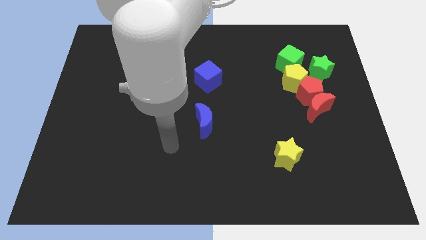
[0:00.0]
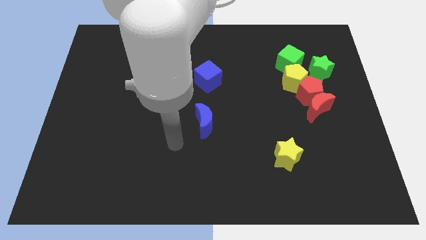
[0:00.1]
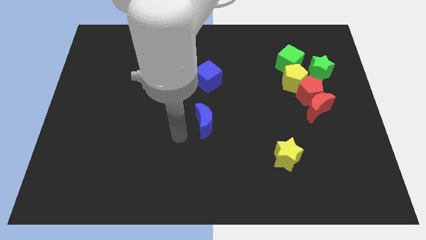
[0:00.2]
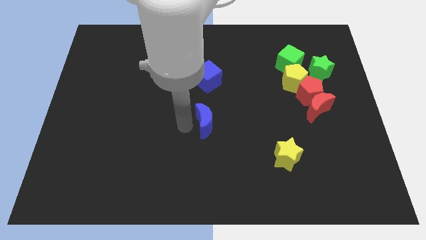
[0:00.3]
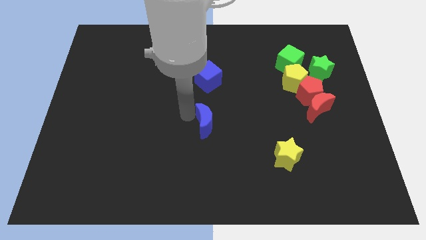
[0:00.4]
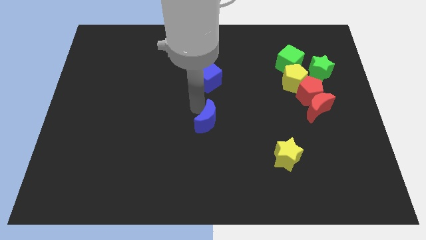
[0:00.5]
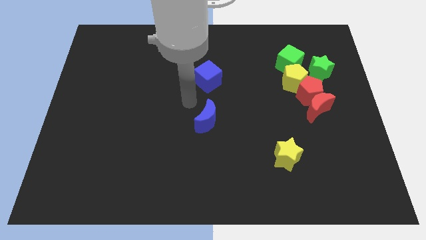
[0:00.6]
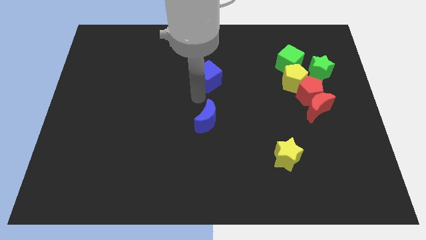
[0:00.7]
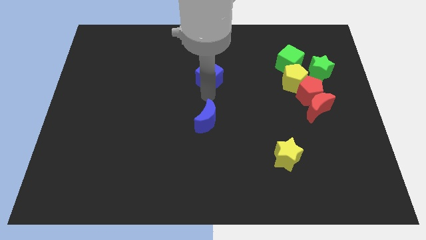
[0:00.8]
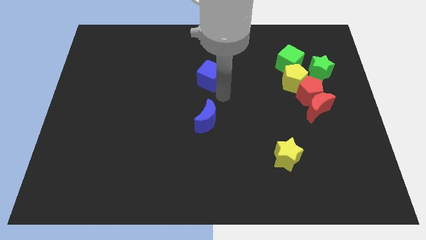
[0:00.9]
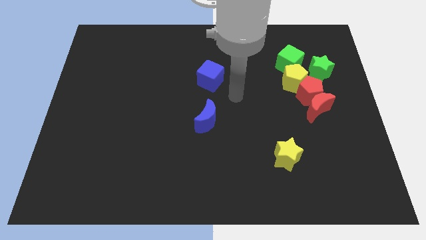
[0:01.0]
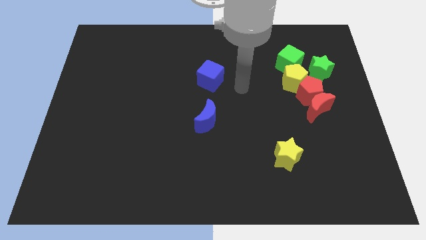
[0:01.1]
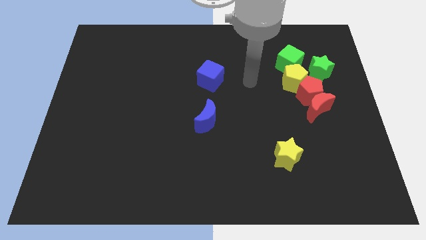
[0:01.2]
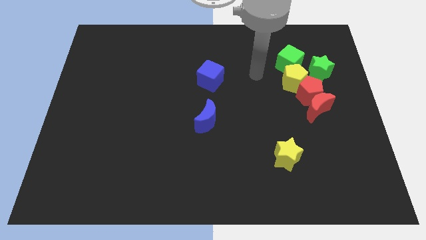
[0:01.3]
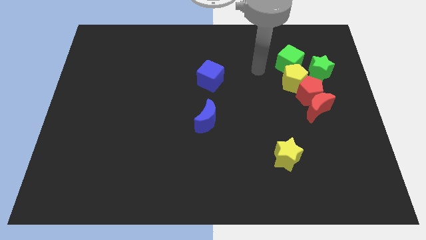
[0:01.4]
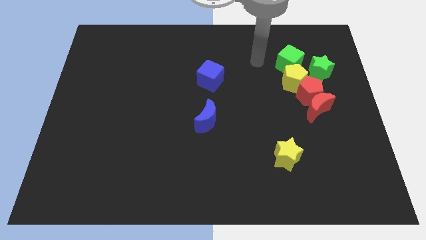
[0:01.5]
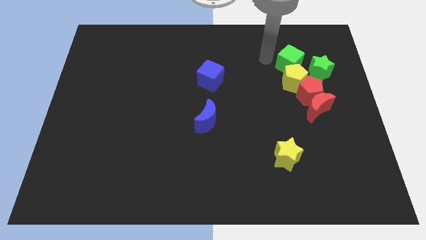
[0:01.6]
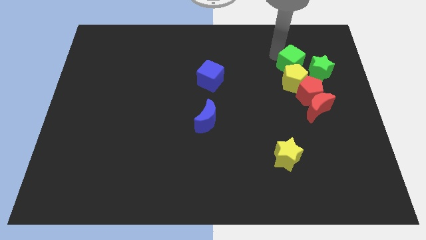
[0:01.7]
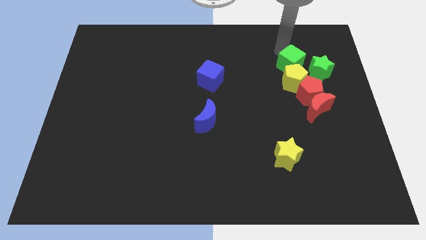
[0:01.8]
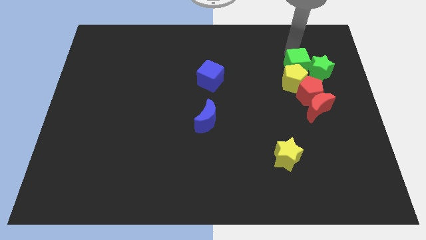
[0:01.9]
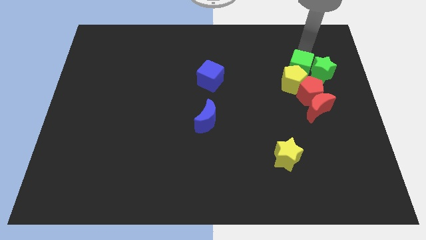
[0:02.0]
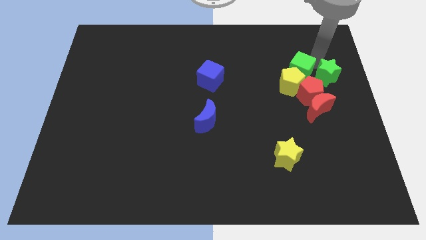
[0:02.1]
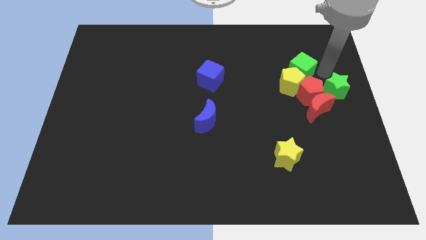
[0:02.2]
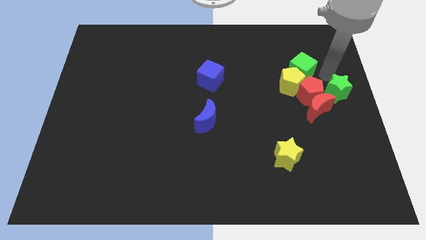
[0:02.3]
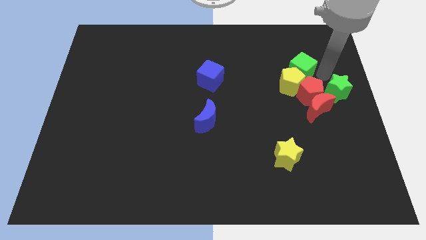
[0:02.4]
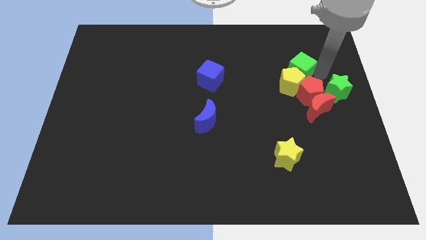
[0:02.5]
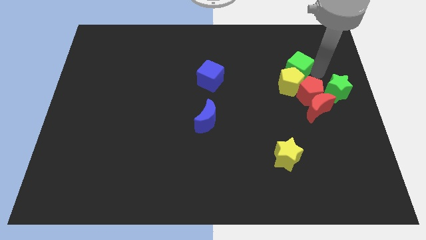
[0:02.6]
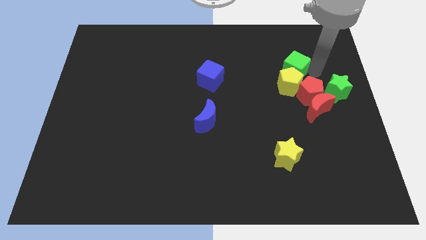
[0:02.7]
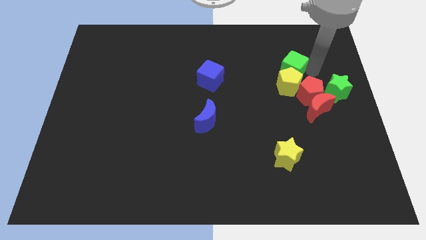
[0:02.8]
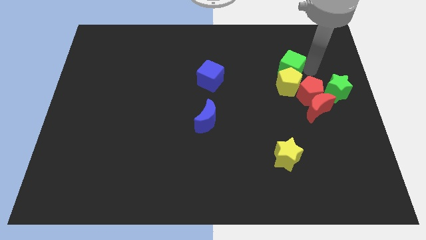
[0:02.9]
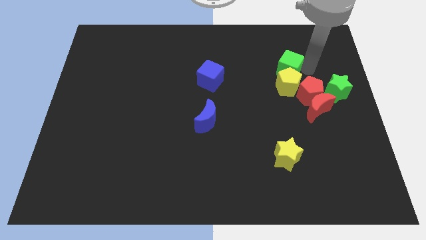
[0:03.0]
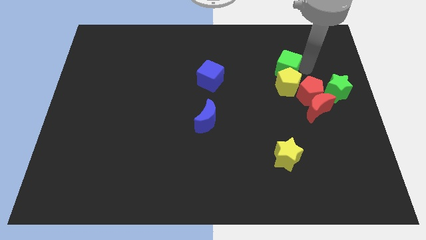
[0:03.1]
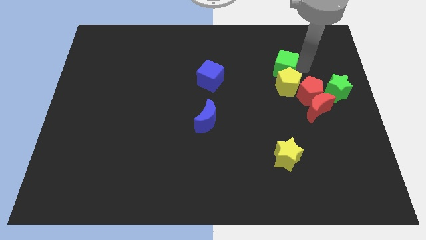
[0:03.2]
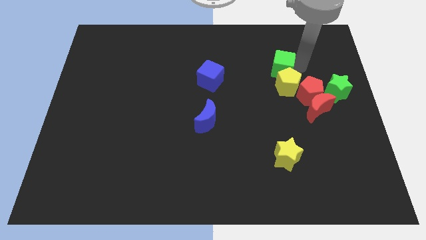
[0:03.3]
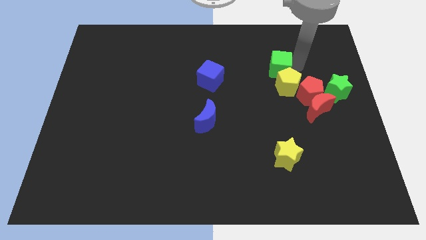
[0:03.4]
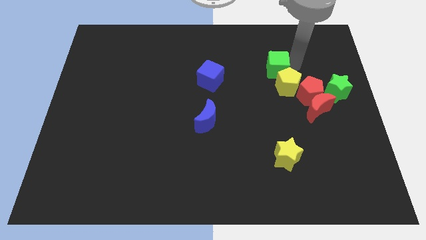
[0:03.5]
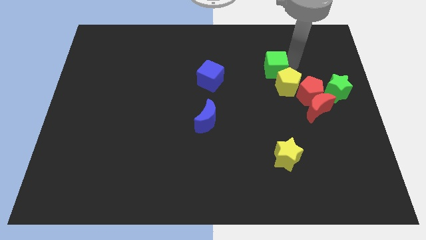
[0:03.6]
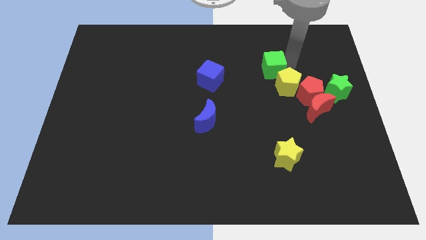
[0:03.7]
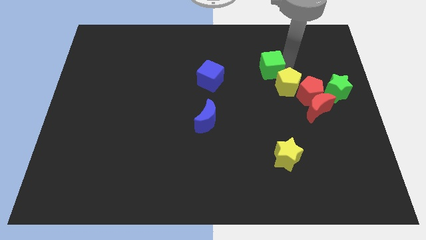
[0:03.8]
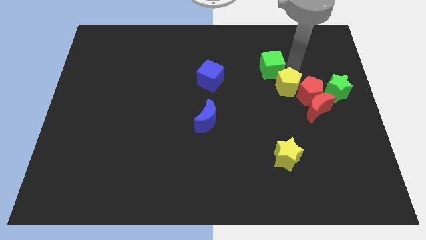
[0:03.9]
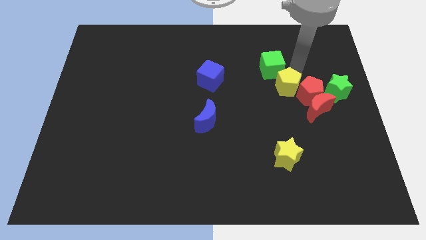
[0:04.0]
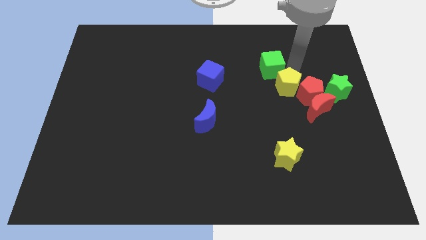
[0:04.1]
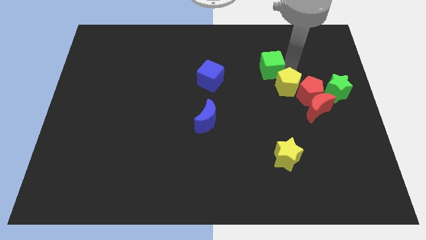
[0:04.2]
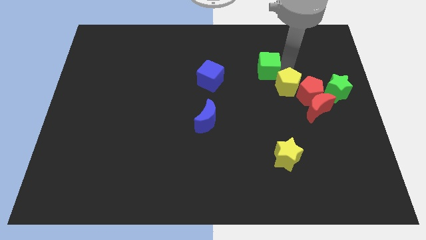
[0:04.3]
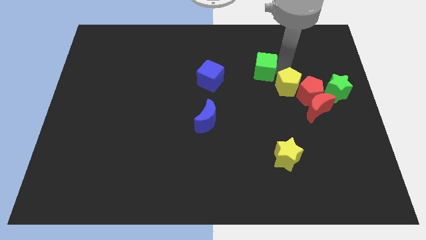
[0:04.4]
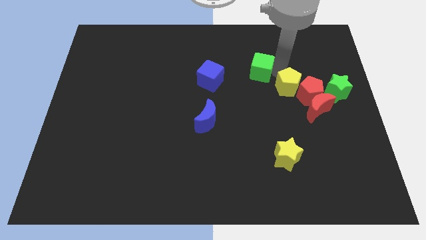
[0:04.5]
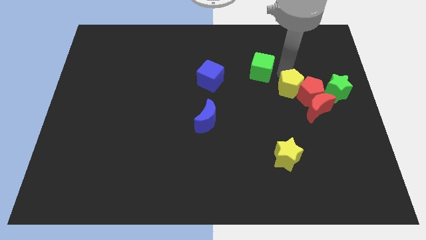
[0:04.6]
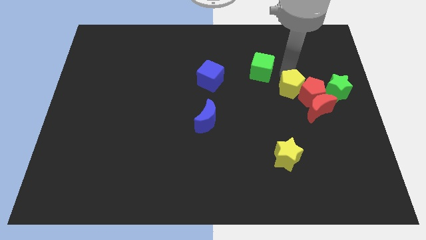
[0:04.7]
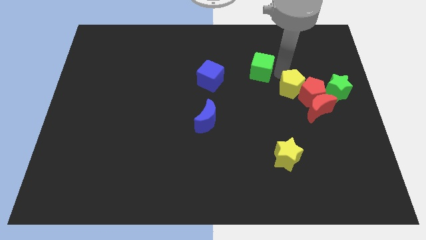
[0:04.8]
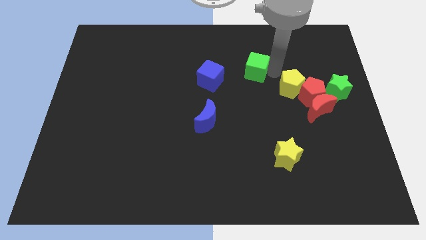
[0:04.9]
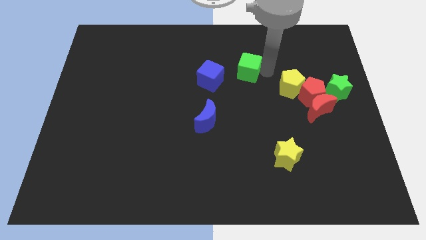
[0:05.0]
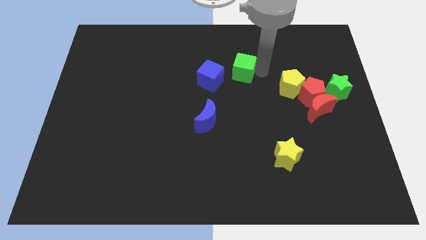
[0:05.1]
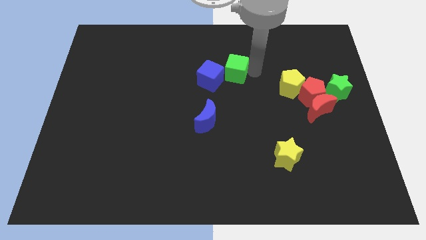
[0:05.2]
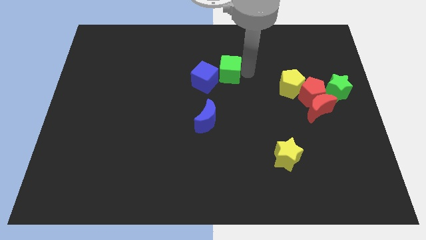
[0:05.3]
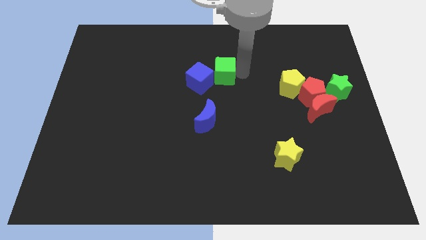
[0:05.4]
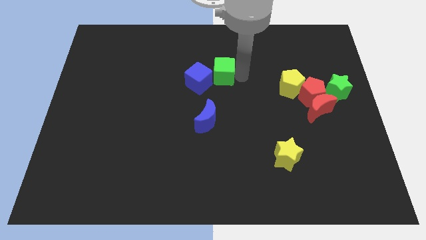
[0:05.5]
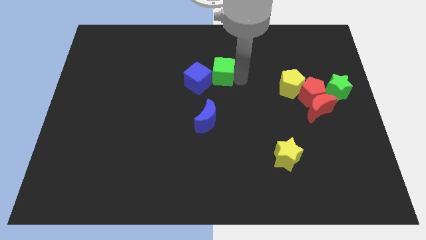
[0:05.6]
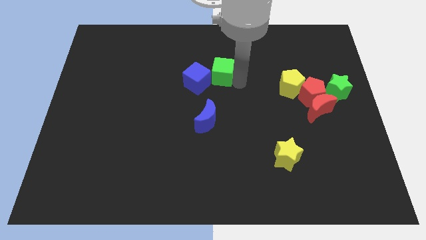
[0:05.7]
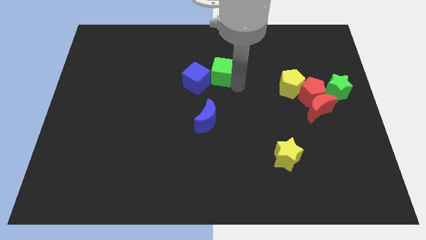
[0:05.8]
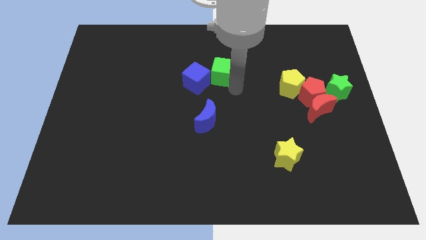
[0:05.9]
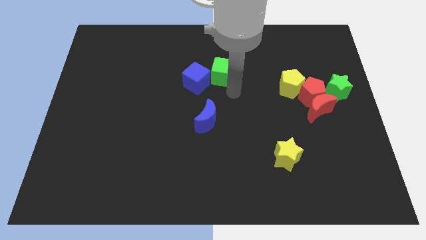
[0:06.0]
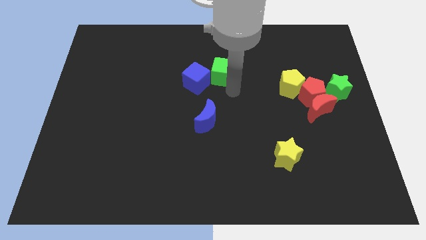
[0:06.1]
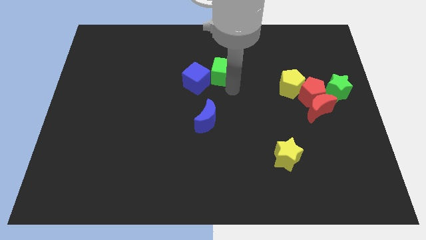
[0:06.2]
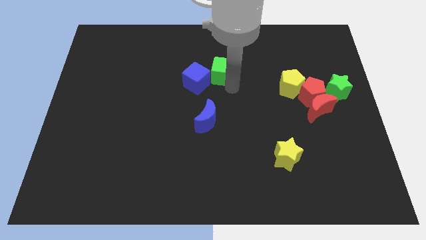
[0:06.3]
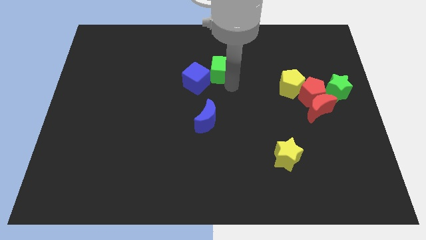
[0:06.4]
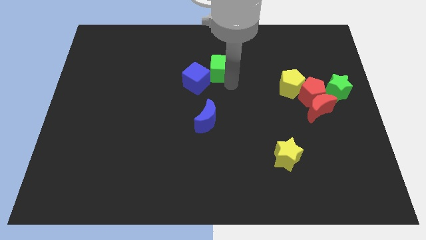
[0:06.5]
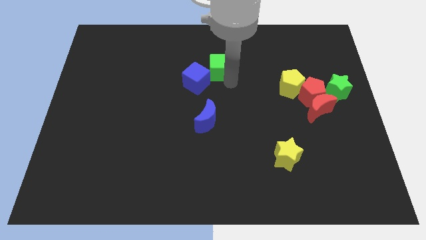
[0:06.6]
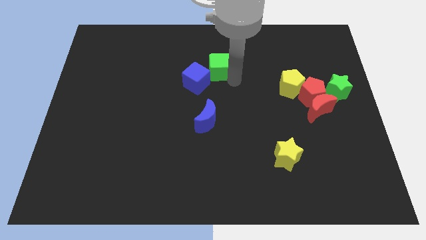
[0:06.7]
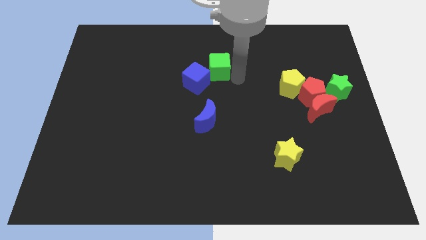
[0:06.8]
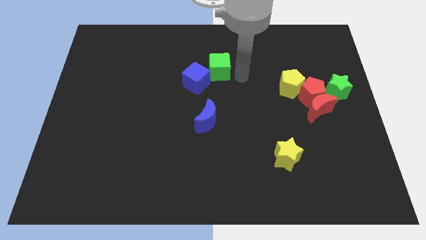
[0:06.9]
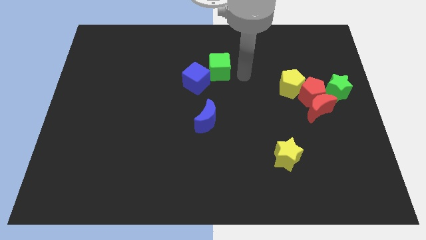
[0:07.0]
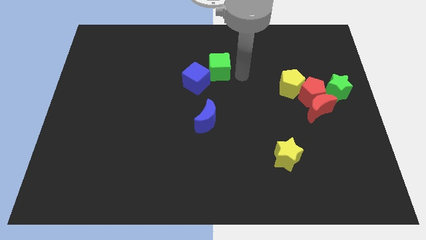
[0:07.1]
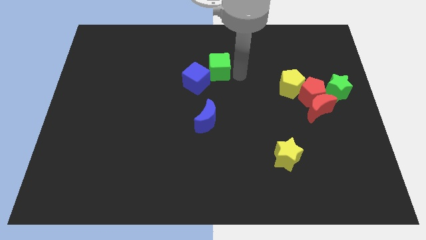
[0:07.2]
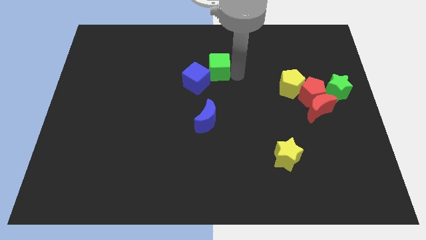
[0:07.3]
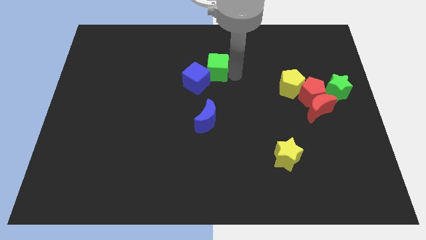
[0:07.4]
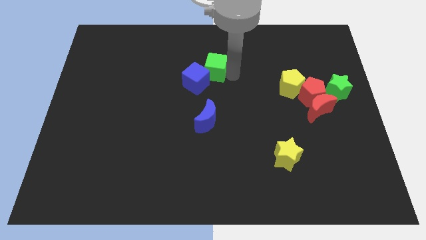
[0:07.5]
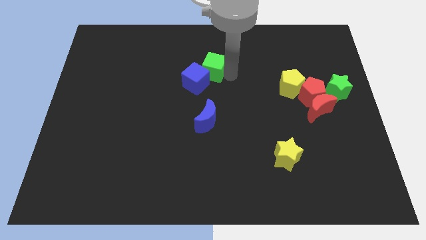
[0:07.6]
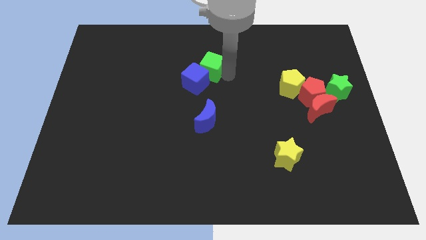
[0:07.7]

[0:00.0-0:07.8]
move the green cube left

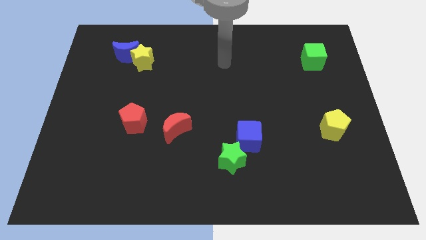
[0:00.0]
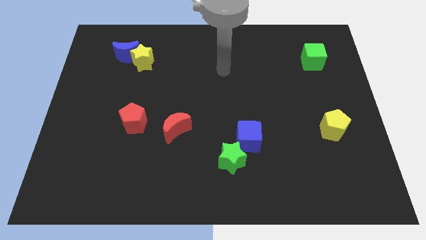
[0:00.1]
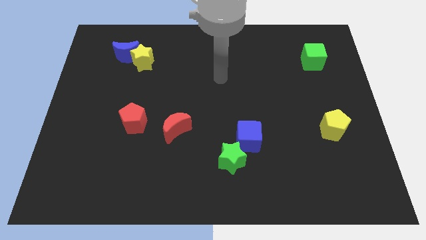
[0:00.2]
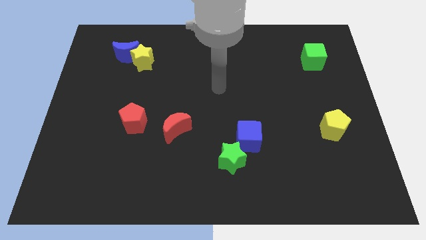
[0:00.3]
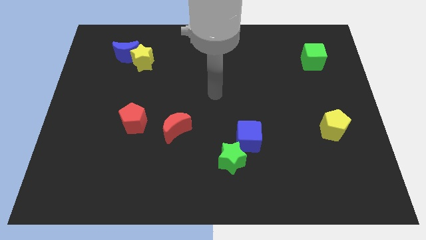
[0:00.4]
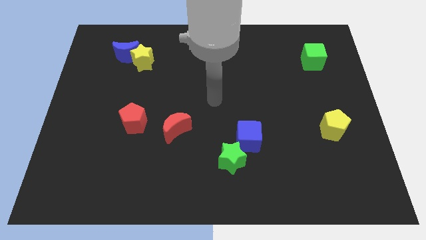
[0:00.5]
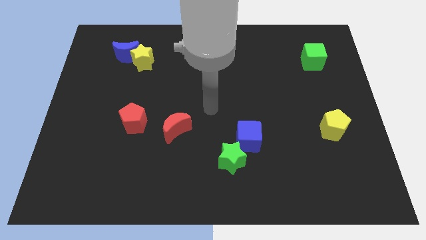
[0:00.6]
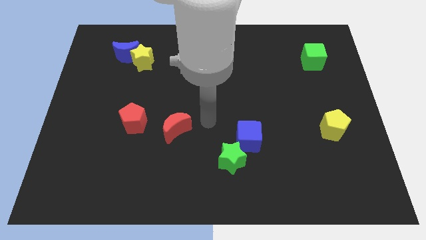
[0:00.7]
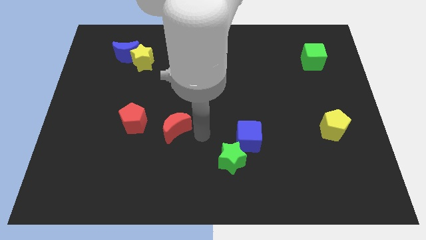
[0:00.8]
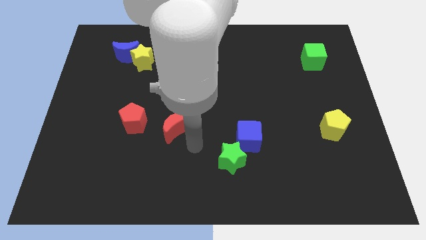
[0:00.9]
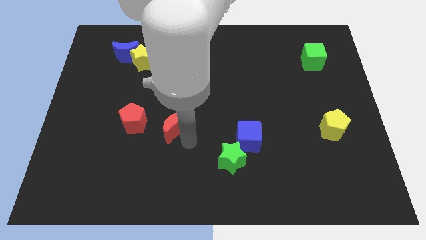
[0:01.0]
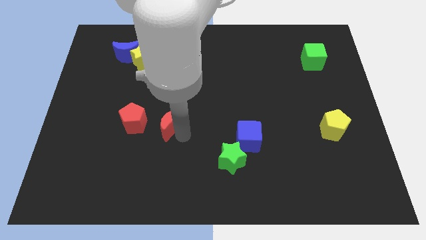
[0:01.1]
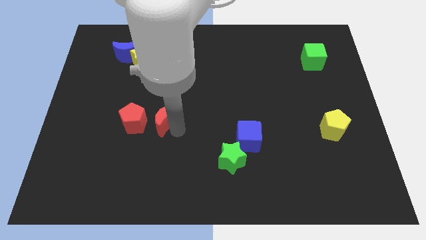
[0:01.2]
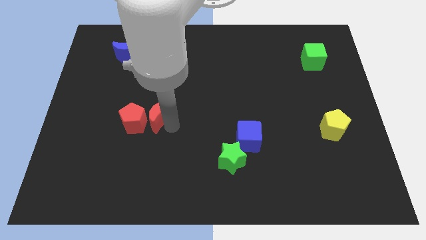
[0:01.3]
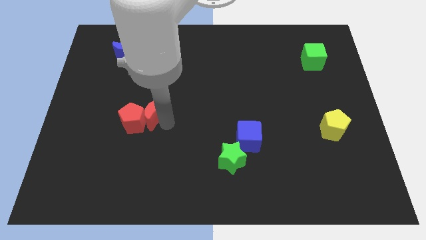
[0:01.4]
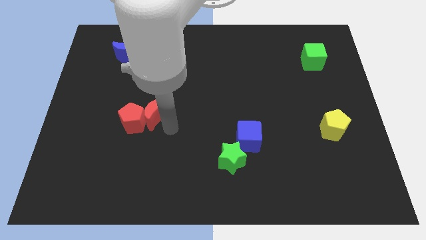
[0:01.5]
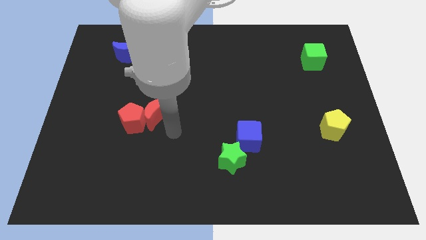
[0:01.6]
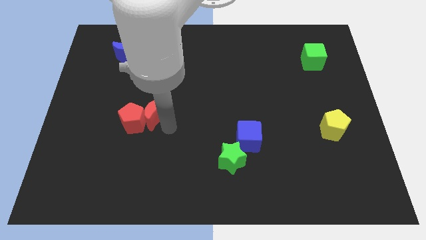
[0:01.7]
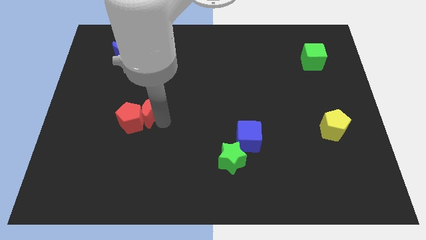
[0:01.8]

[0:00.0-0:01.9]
slightly slide the red moon diagonally up and left
